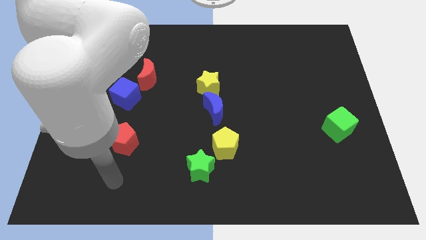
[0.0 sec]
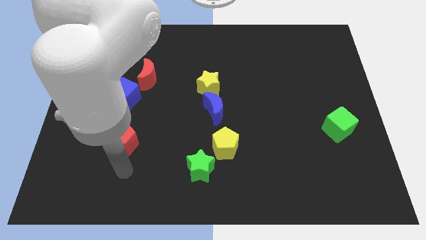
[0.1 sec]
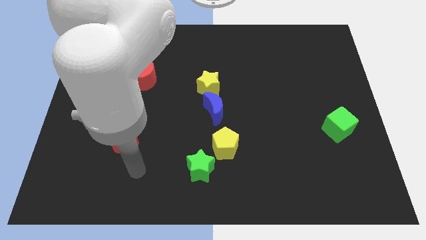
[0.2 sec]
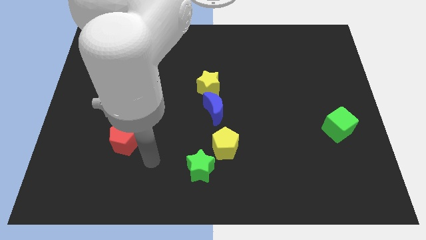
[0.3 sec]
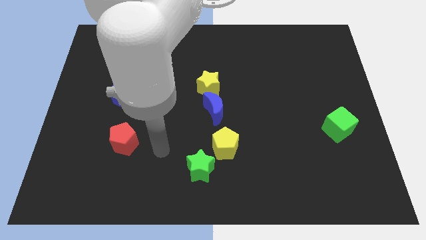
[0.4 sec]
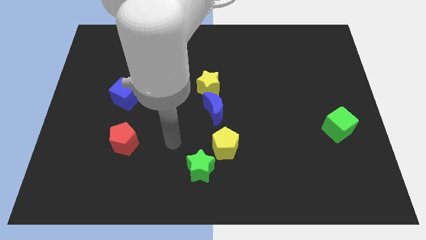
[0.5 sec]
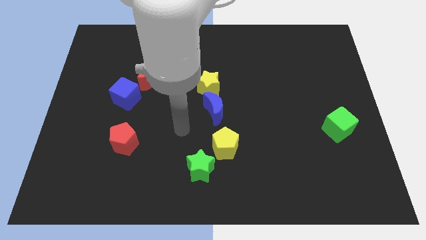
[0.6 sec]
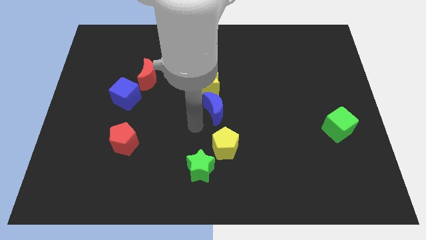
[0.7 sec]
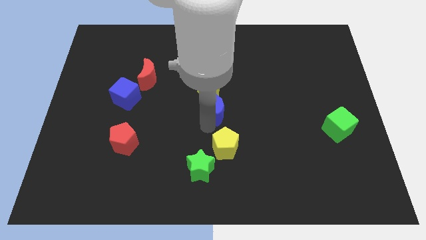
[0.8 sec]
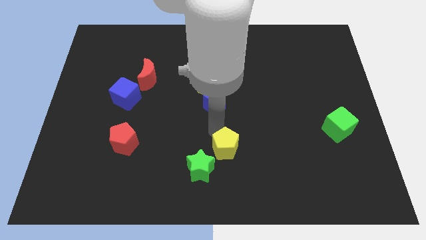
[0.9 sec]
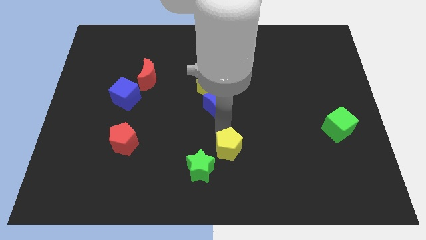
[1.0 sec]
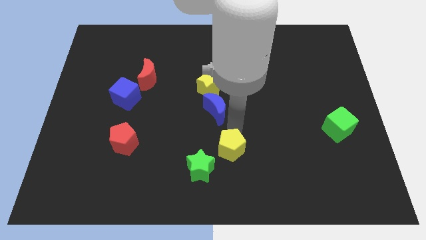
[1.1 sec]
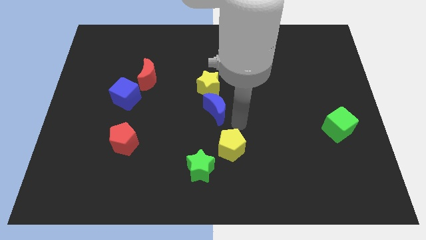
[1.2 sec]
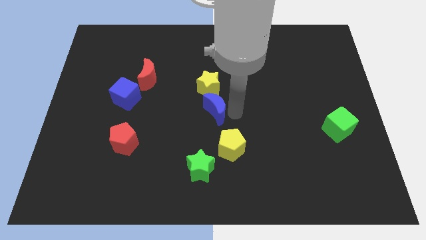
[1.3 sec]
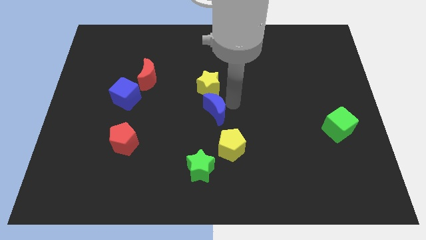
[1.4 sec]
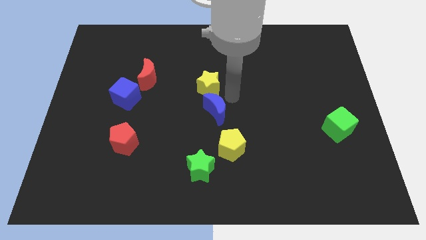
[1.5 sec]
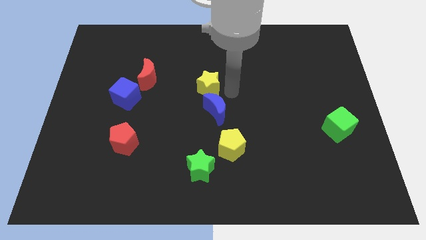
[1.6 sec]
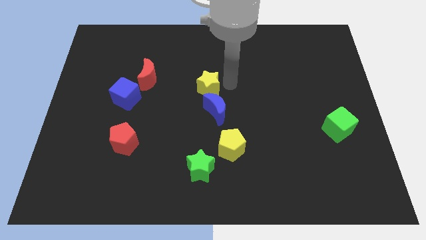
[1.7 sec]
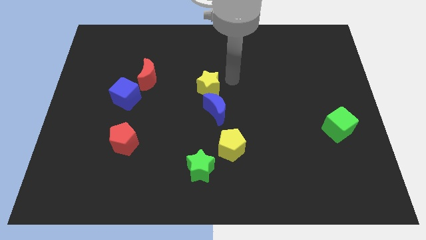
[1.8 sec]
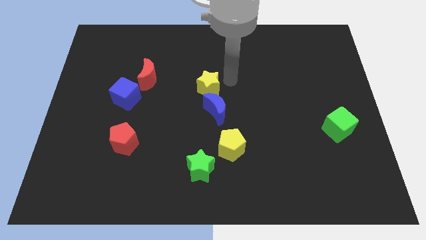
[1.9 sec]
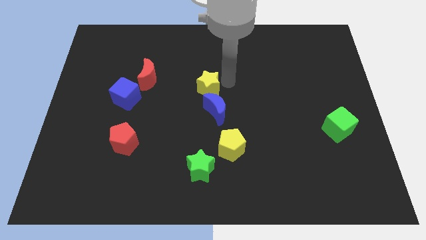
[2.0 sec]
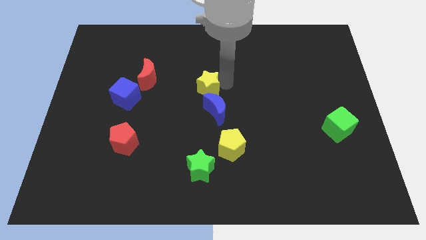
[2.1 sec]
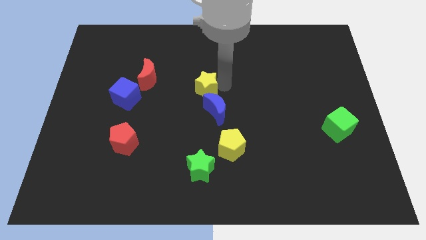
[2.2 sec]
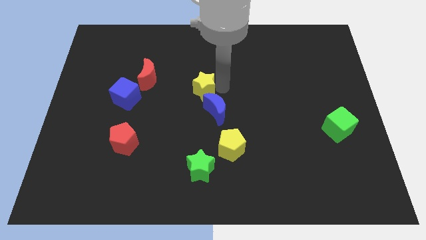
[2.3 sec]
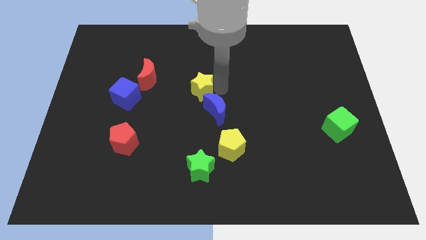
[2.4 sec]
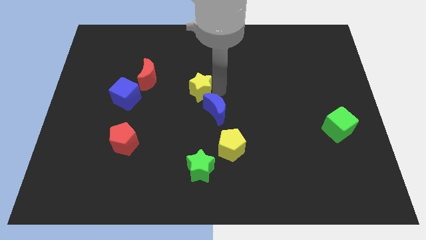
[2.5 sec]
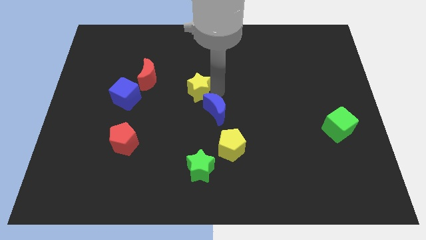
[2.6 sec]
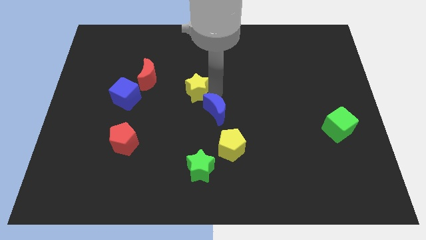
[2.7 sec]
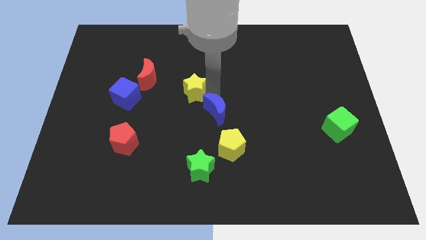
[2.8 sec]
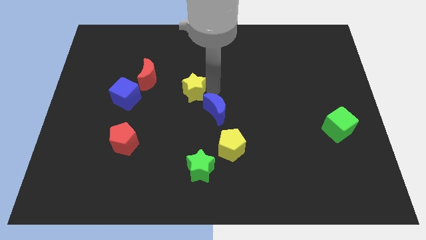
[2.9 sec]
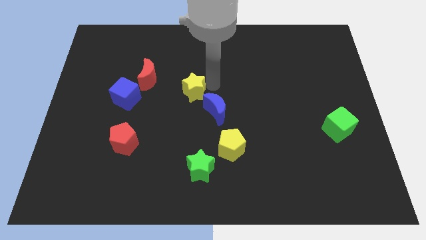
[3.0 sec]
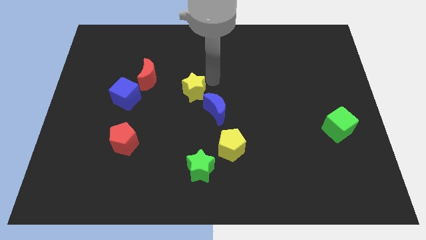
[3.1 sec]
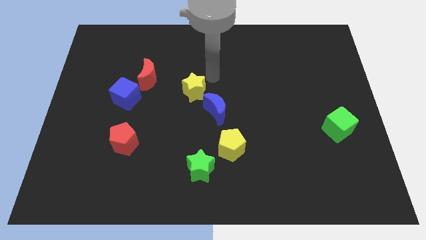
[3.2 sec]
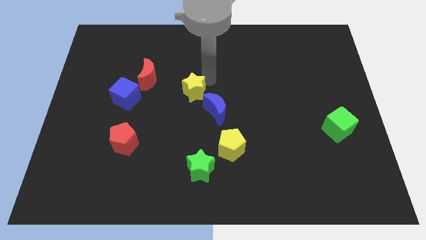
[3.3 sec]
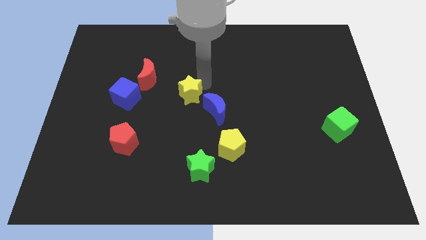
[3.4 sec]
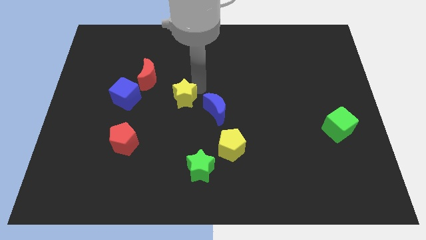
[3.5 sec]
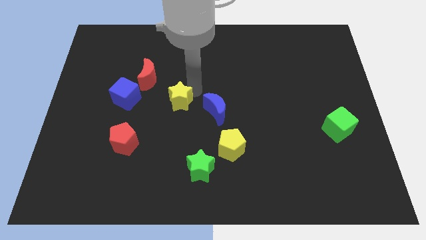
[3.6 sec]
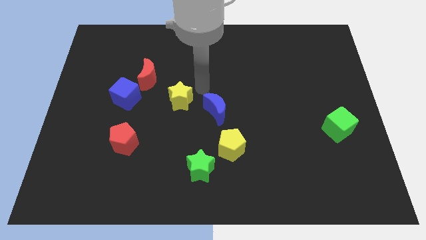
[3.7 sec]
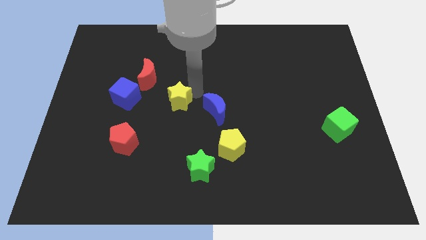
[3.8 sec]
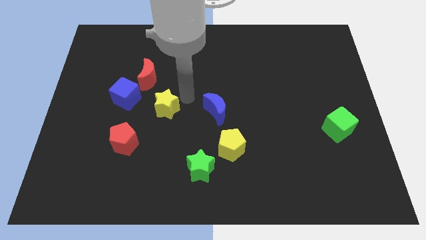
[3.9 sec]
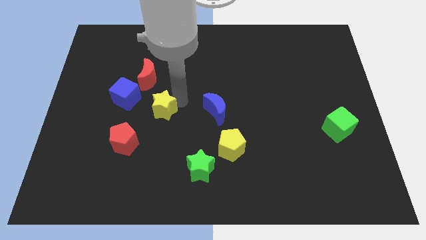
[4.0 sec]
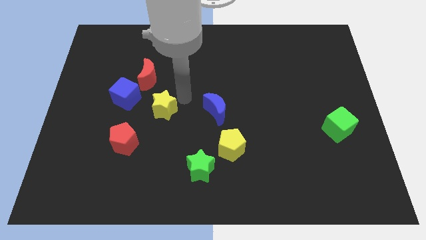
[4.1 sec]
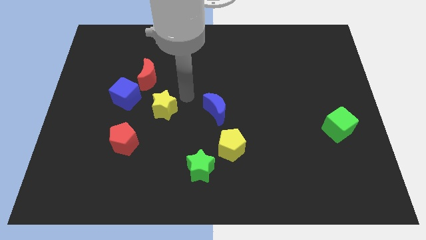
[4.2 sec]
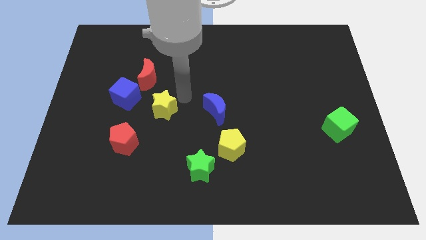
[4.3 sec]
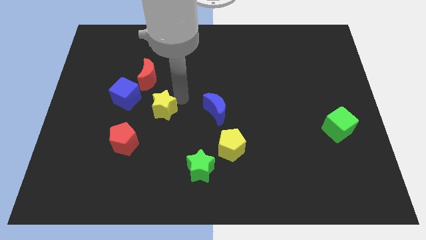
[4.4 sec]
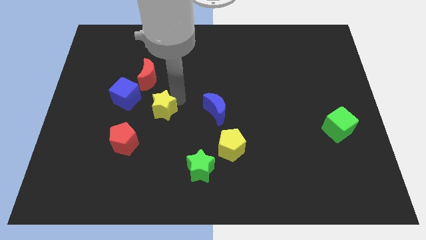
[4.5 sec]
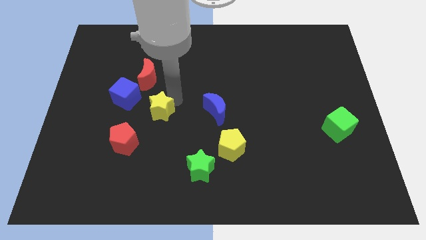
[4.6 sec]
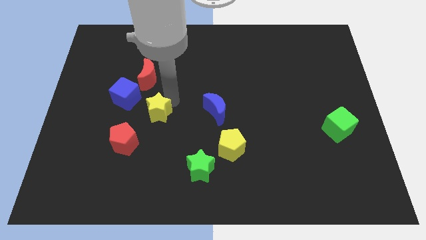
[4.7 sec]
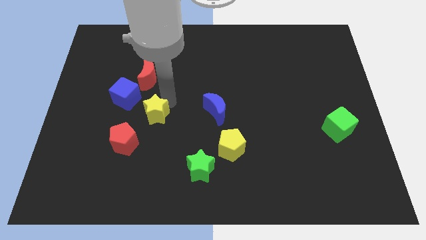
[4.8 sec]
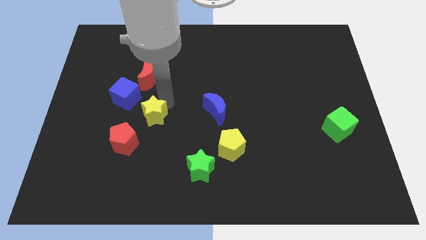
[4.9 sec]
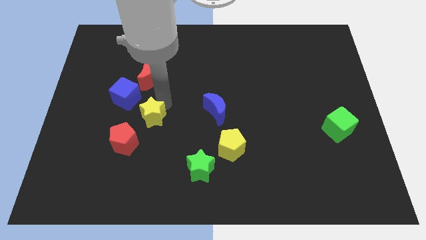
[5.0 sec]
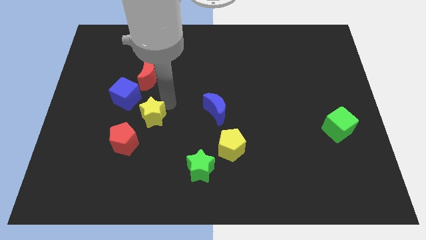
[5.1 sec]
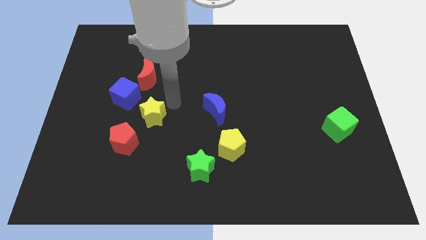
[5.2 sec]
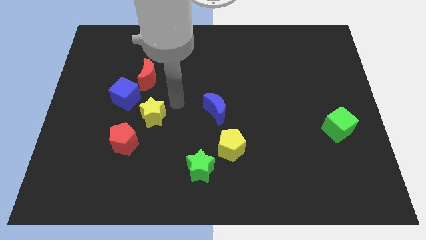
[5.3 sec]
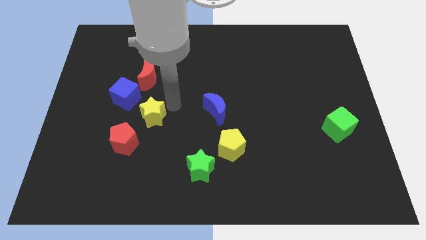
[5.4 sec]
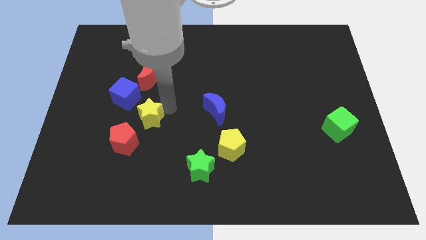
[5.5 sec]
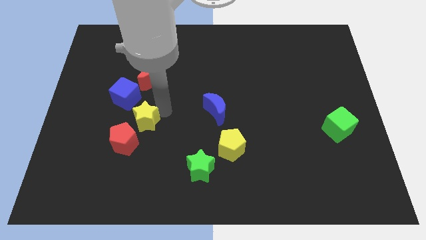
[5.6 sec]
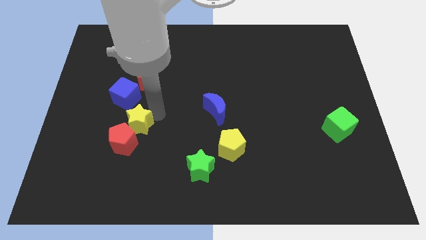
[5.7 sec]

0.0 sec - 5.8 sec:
slide the yellow star close to the red pentagon

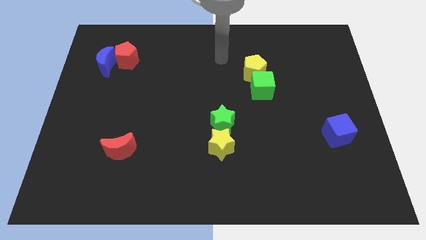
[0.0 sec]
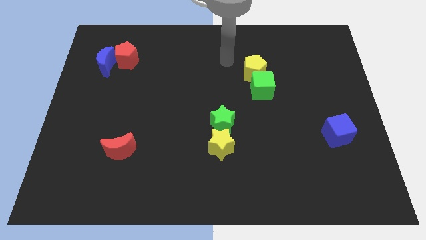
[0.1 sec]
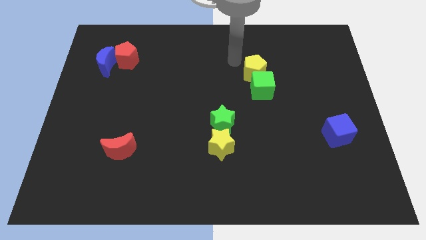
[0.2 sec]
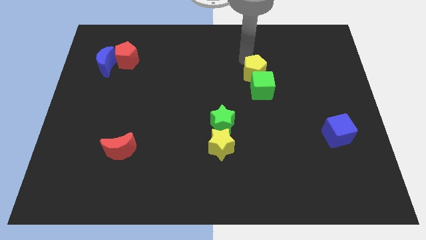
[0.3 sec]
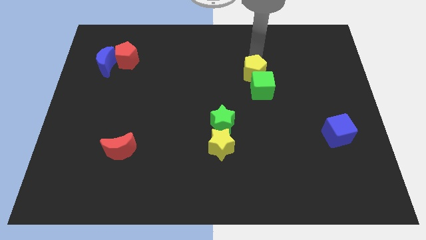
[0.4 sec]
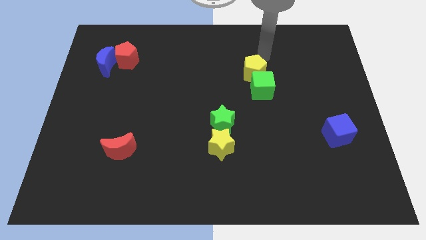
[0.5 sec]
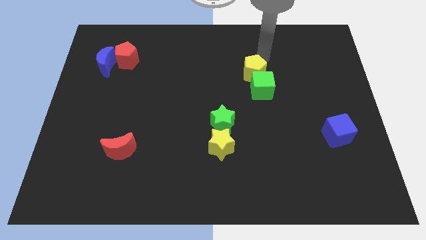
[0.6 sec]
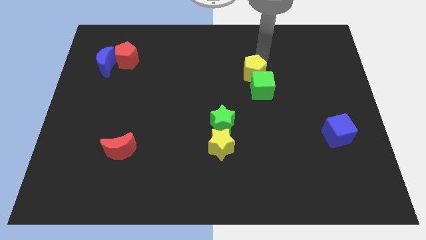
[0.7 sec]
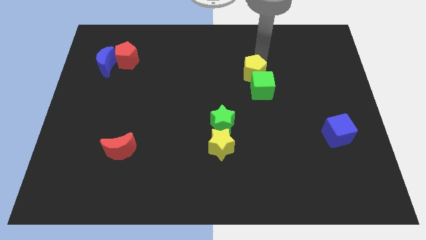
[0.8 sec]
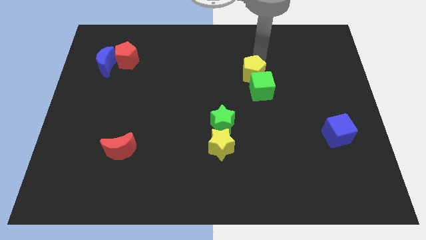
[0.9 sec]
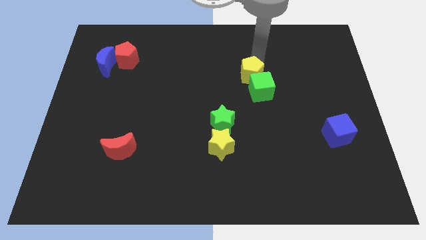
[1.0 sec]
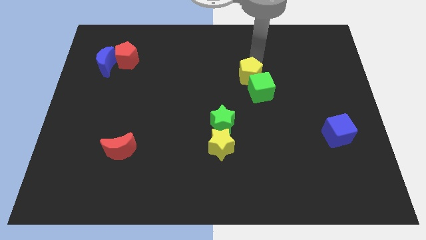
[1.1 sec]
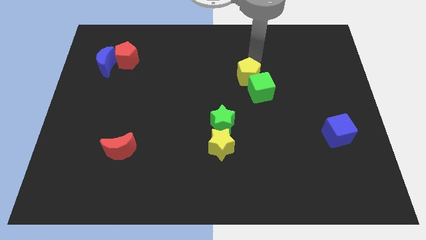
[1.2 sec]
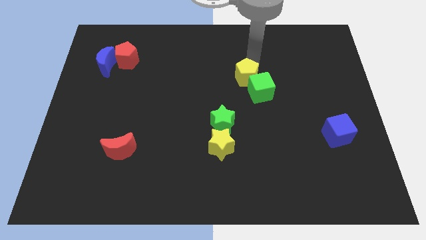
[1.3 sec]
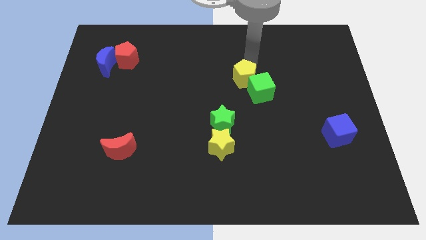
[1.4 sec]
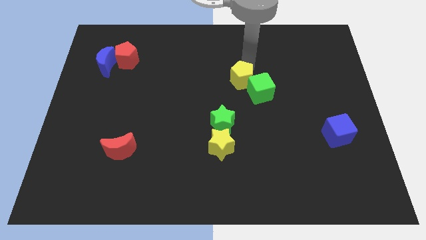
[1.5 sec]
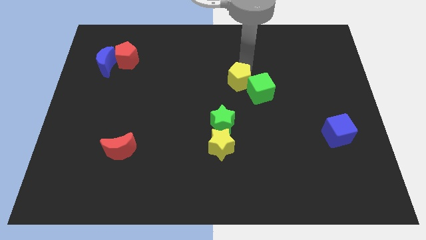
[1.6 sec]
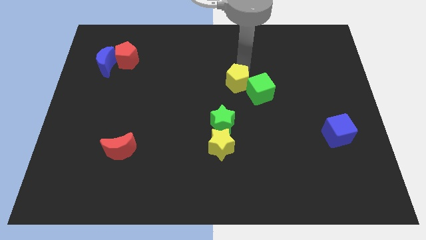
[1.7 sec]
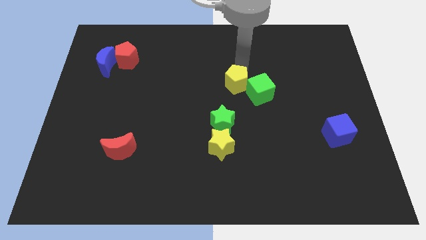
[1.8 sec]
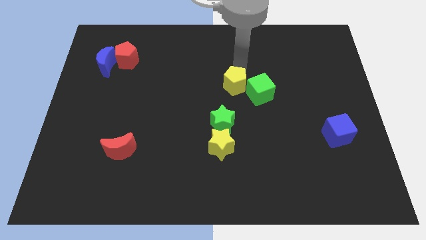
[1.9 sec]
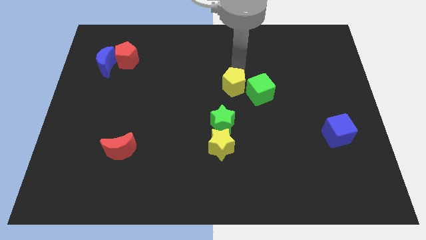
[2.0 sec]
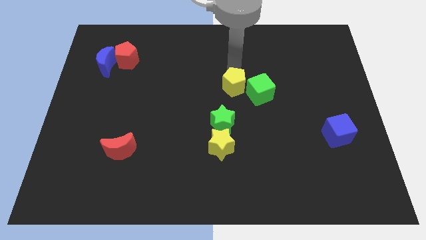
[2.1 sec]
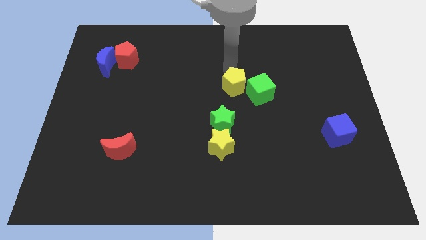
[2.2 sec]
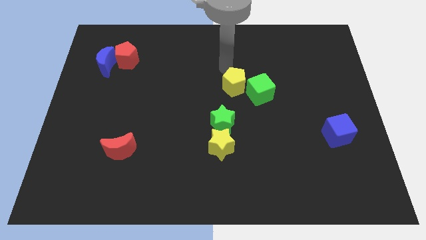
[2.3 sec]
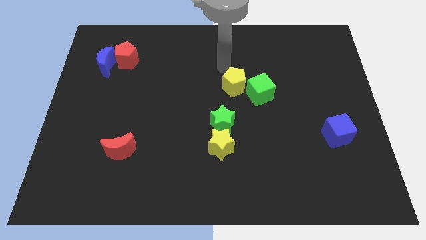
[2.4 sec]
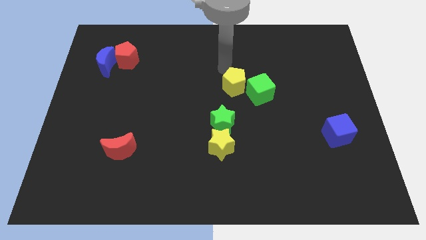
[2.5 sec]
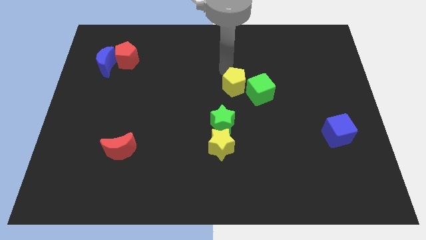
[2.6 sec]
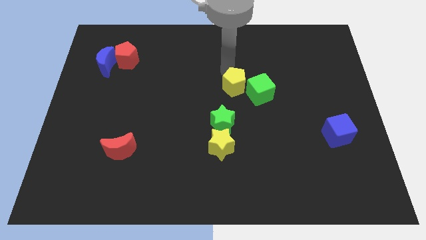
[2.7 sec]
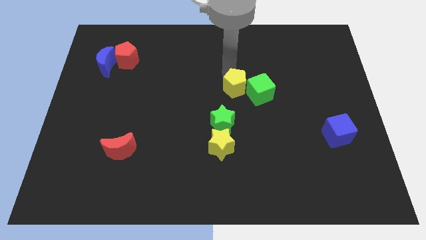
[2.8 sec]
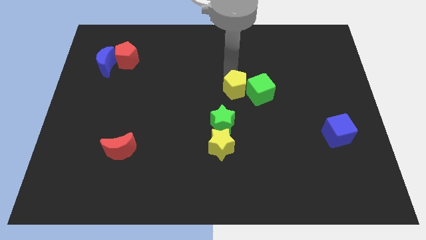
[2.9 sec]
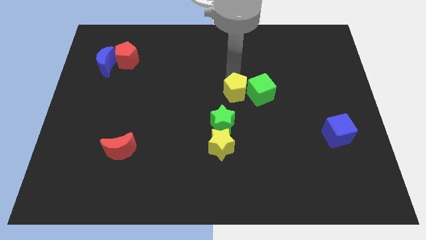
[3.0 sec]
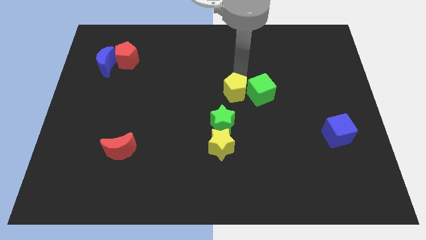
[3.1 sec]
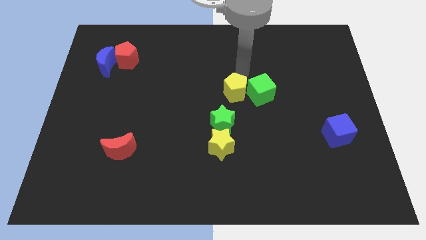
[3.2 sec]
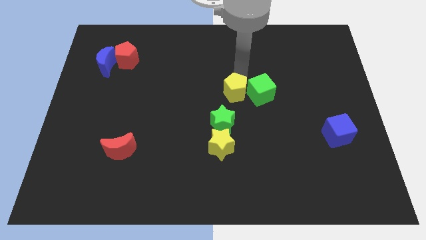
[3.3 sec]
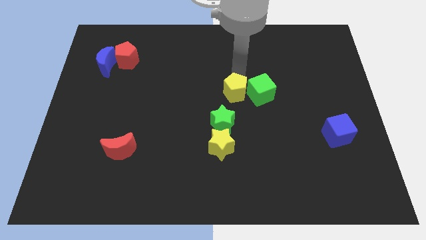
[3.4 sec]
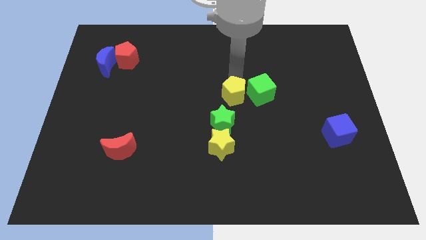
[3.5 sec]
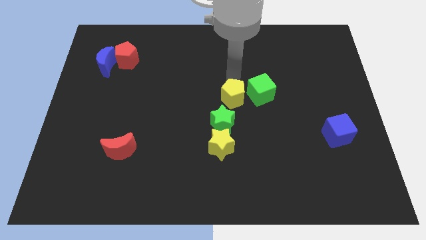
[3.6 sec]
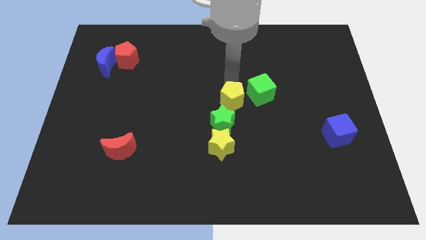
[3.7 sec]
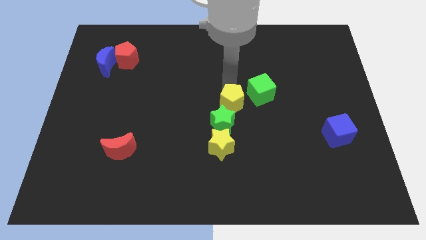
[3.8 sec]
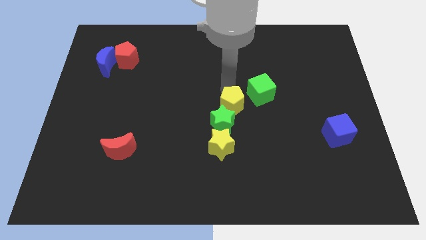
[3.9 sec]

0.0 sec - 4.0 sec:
push the yellow pentagon towards the green star
